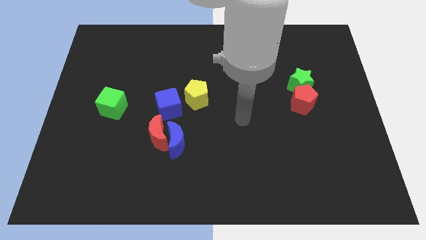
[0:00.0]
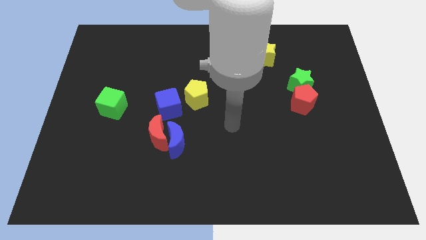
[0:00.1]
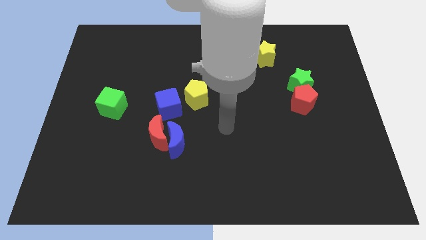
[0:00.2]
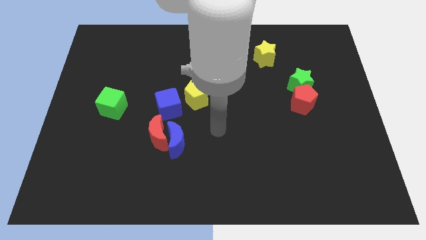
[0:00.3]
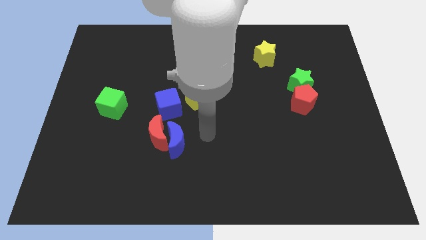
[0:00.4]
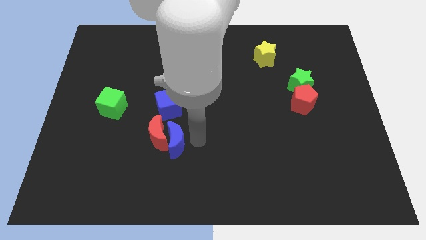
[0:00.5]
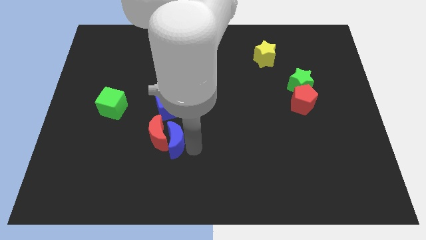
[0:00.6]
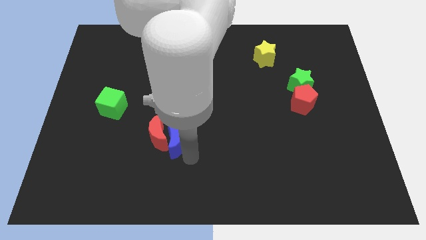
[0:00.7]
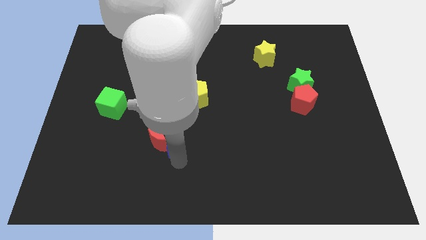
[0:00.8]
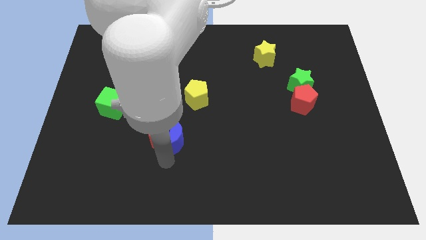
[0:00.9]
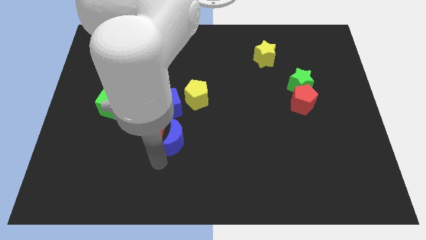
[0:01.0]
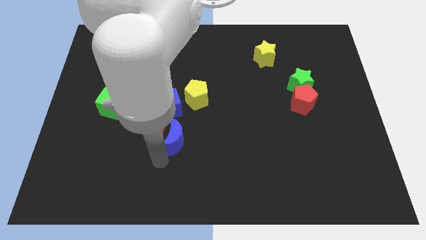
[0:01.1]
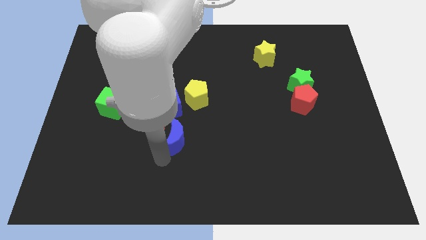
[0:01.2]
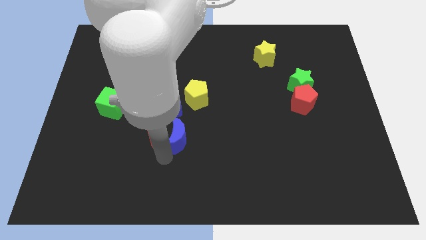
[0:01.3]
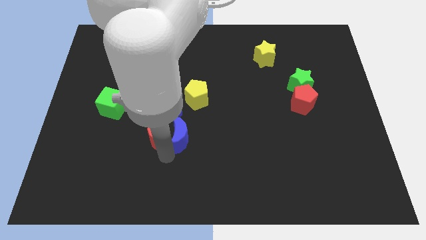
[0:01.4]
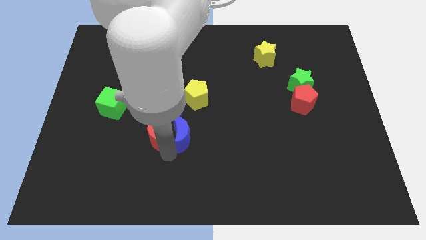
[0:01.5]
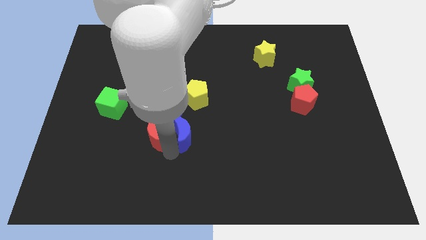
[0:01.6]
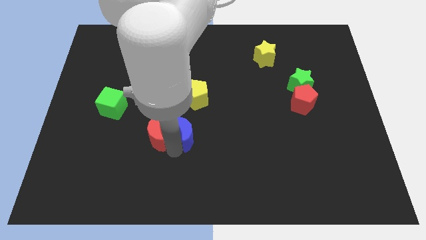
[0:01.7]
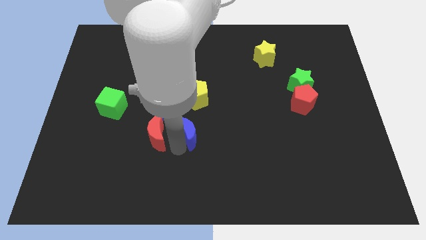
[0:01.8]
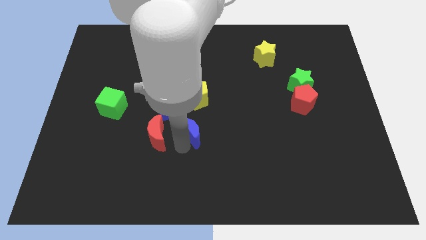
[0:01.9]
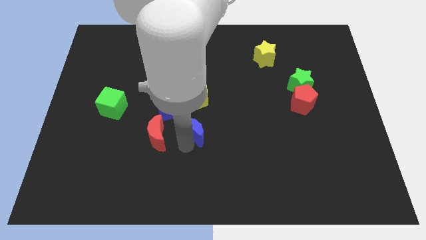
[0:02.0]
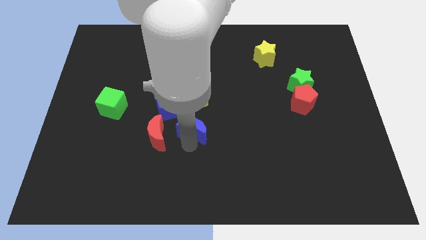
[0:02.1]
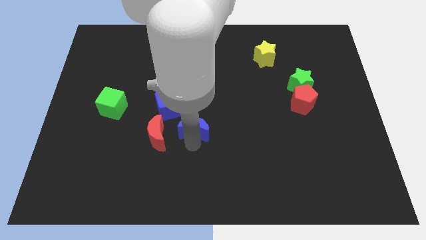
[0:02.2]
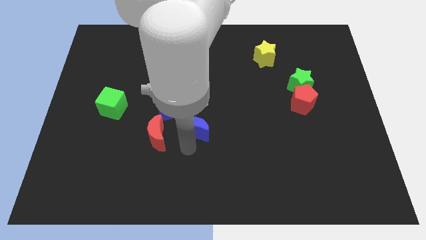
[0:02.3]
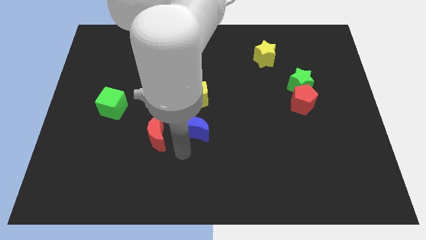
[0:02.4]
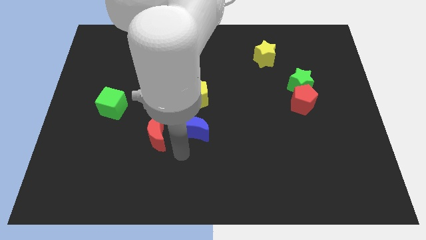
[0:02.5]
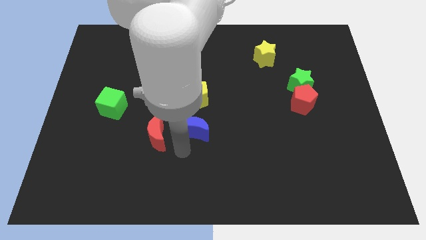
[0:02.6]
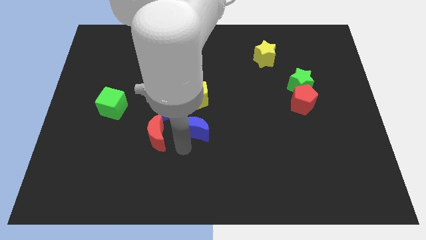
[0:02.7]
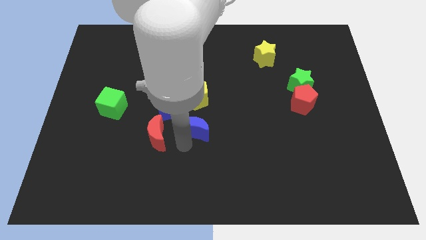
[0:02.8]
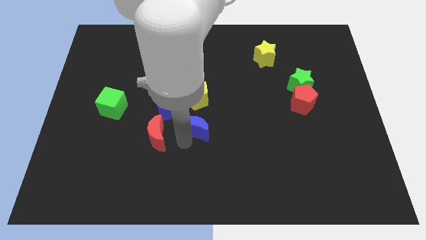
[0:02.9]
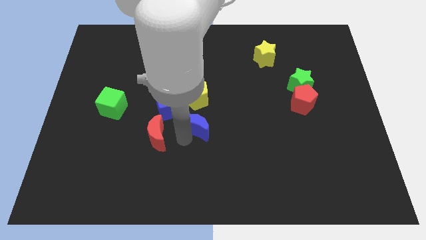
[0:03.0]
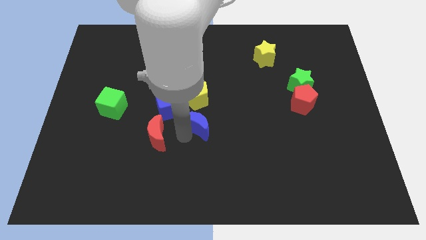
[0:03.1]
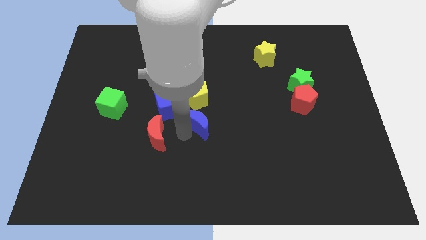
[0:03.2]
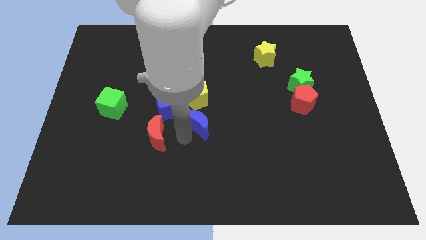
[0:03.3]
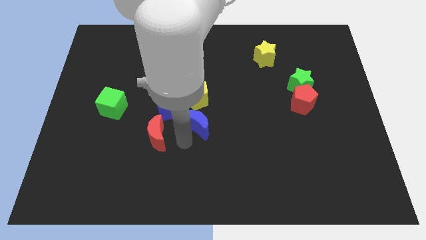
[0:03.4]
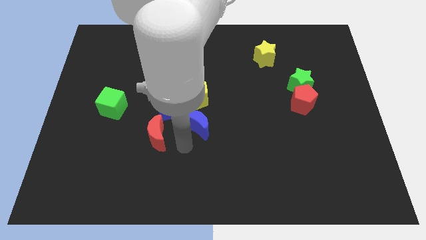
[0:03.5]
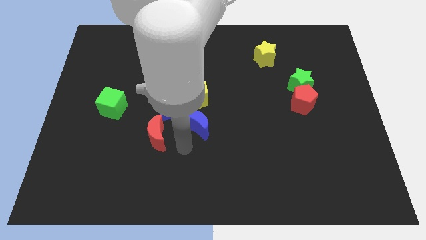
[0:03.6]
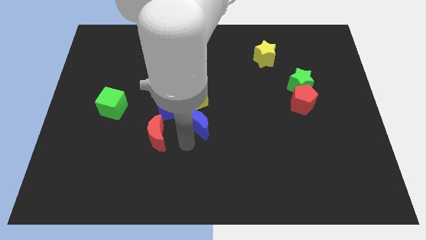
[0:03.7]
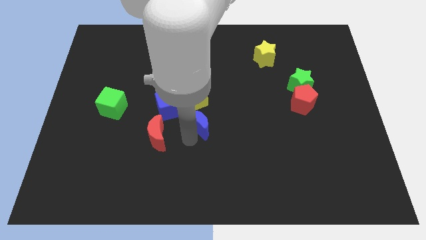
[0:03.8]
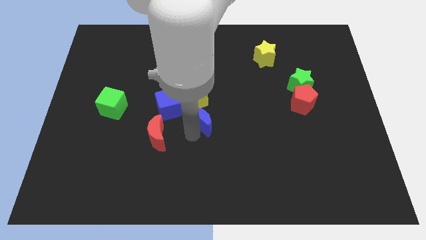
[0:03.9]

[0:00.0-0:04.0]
slide the blue moon a little up and to the right

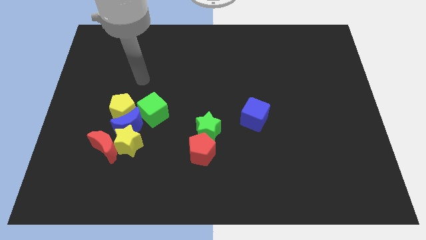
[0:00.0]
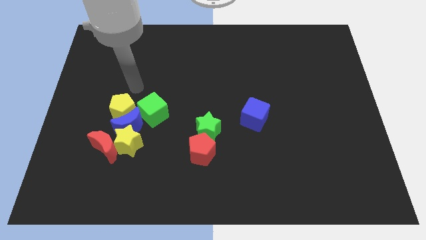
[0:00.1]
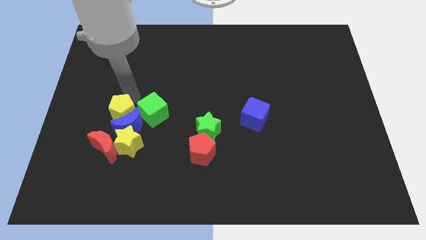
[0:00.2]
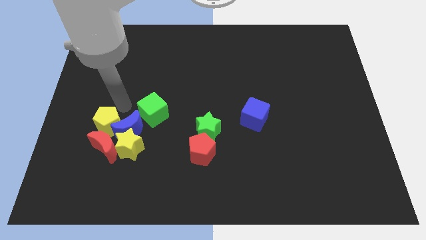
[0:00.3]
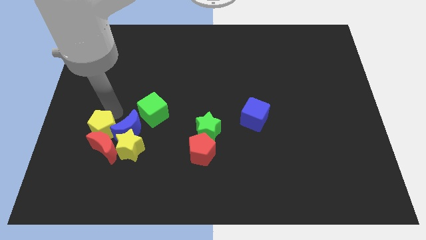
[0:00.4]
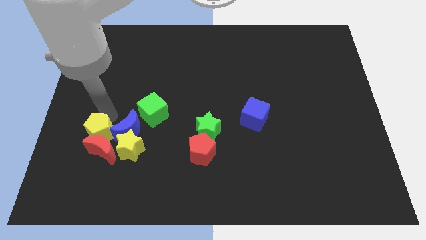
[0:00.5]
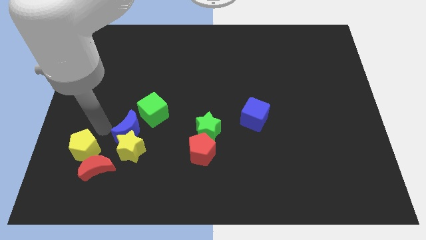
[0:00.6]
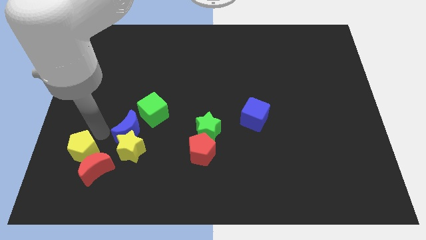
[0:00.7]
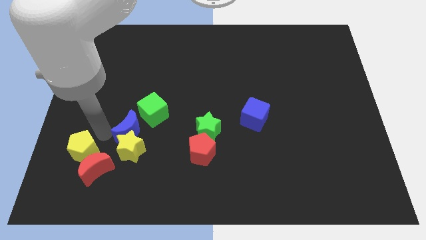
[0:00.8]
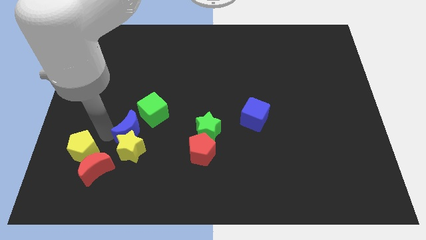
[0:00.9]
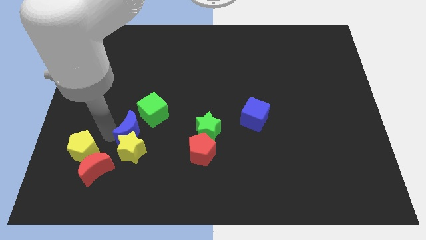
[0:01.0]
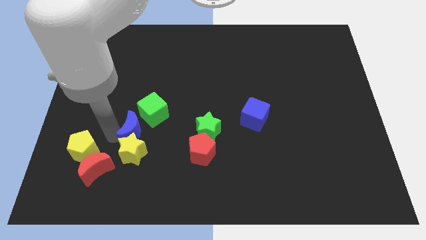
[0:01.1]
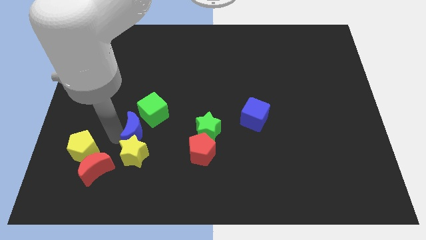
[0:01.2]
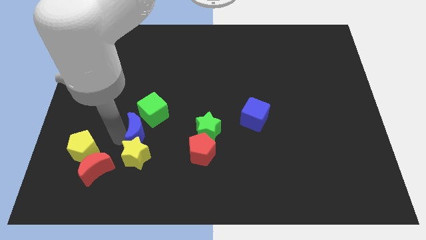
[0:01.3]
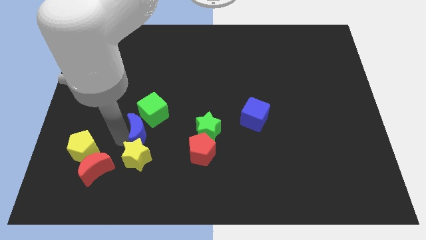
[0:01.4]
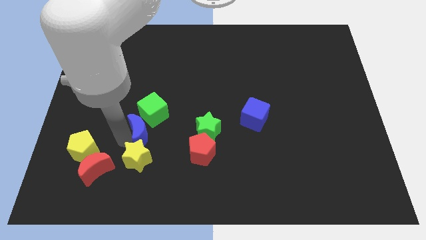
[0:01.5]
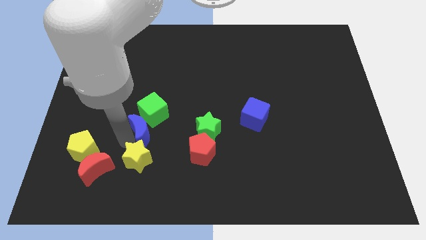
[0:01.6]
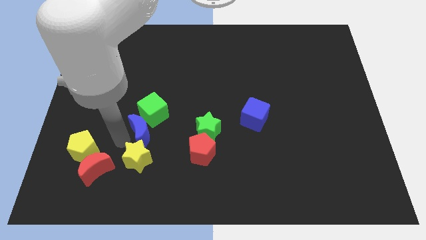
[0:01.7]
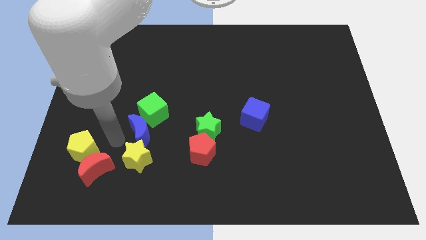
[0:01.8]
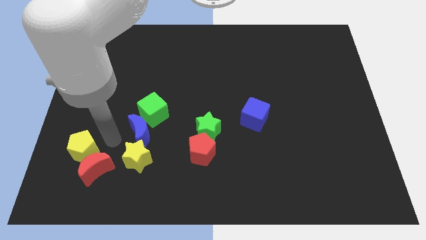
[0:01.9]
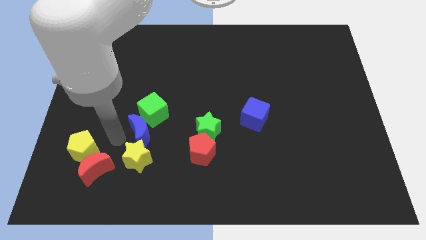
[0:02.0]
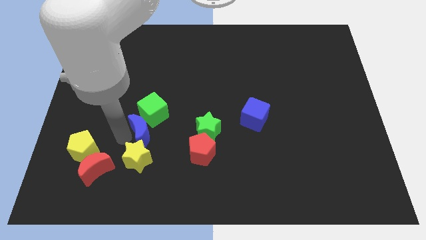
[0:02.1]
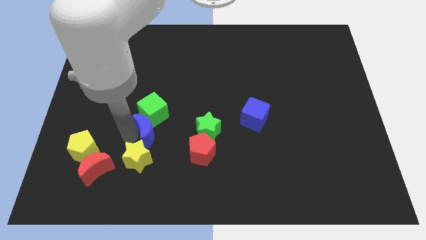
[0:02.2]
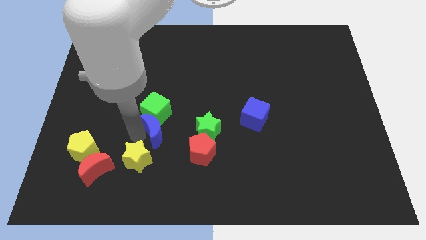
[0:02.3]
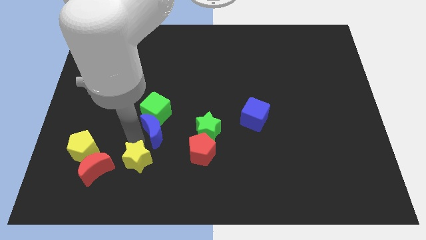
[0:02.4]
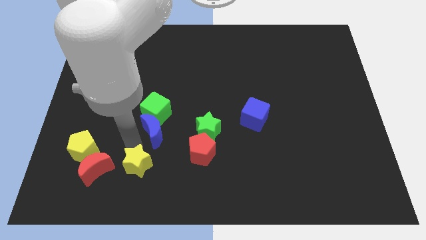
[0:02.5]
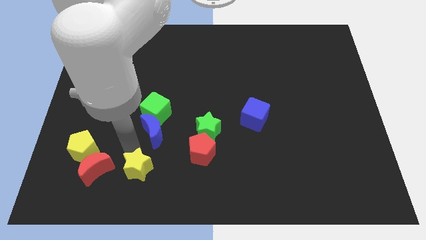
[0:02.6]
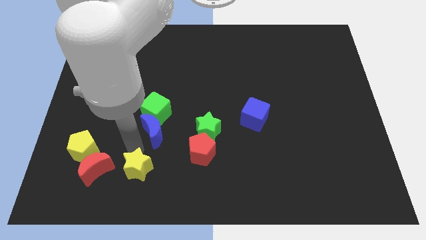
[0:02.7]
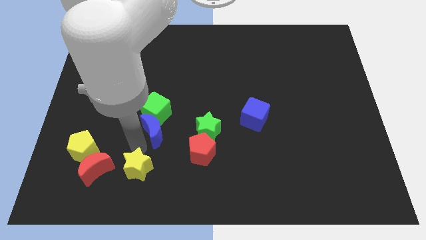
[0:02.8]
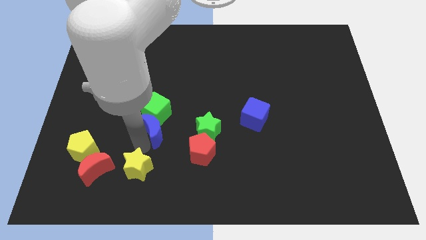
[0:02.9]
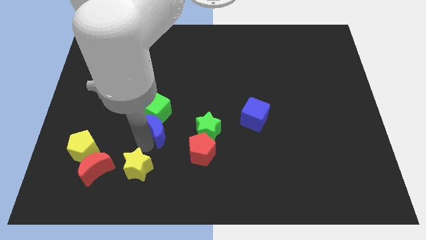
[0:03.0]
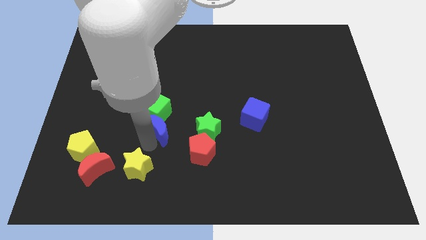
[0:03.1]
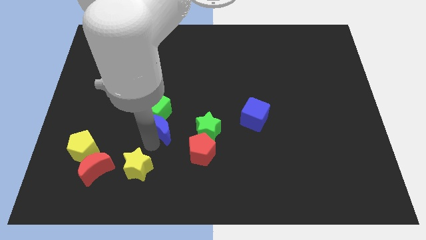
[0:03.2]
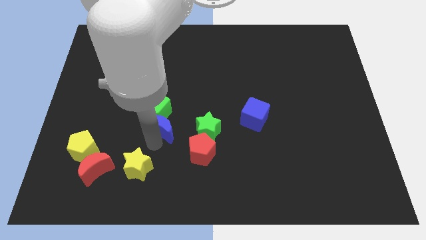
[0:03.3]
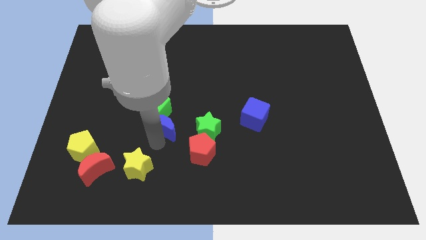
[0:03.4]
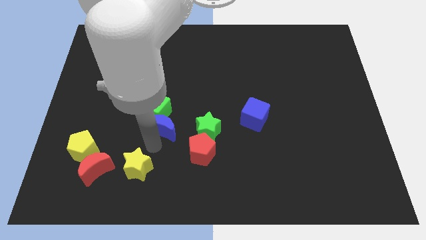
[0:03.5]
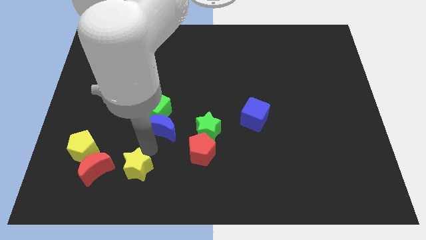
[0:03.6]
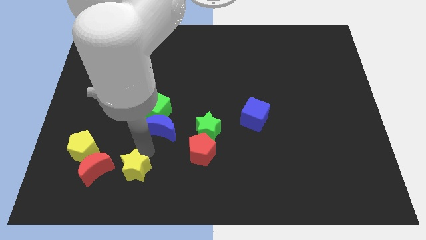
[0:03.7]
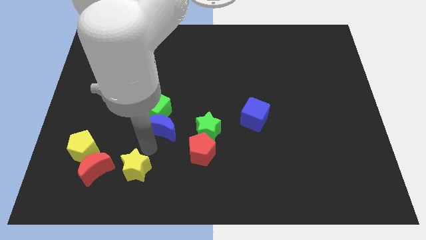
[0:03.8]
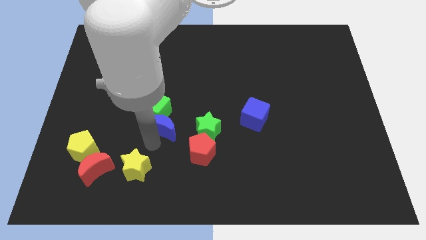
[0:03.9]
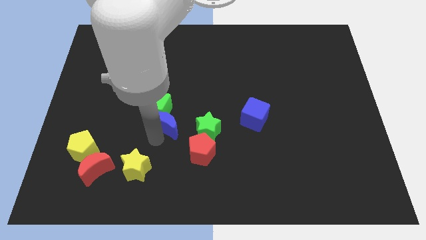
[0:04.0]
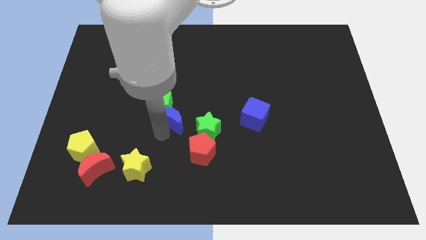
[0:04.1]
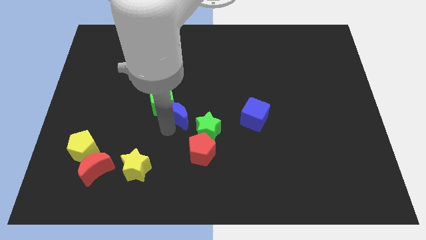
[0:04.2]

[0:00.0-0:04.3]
slightly push the blue moon up and right diagonally
